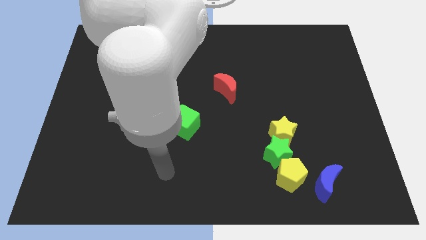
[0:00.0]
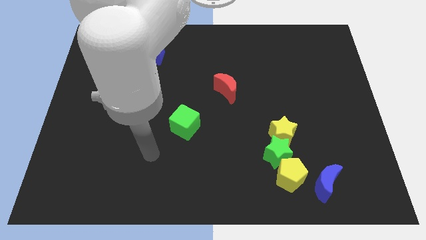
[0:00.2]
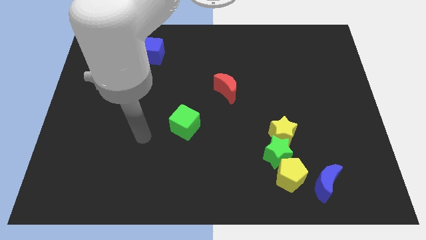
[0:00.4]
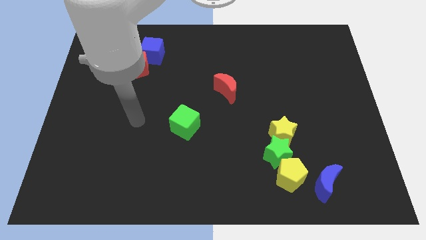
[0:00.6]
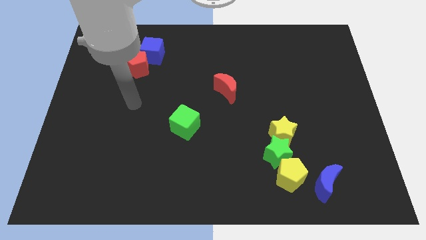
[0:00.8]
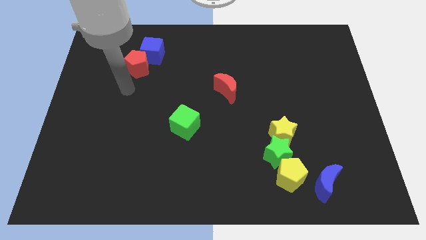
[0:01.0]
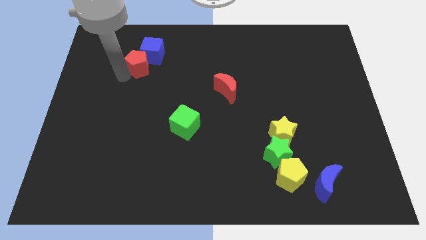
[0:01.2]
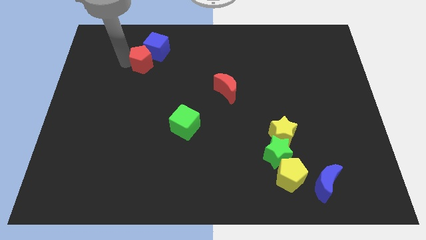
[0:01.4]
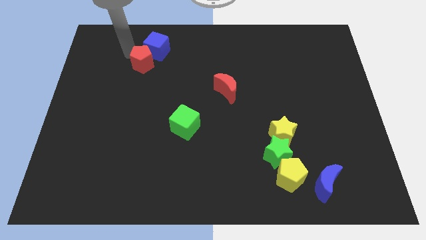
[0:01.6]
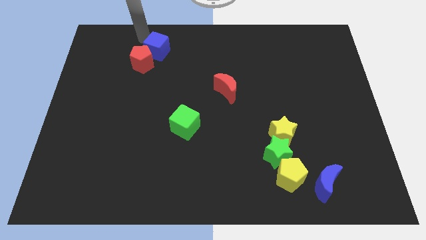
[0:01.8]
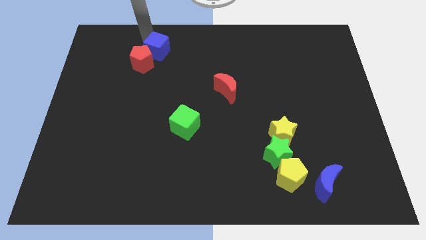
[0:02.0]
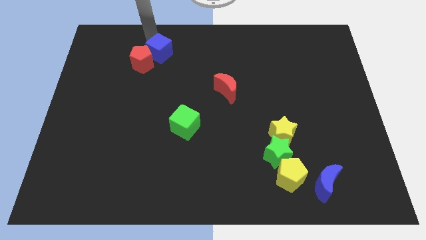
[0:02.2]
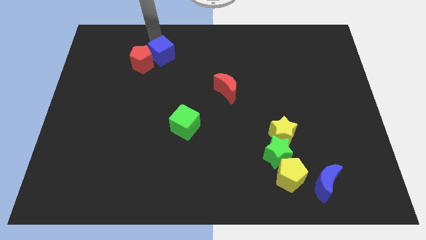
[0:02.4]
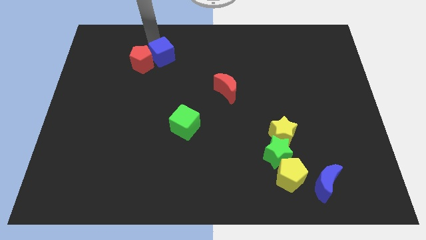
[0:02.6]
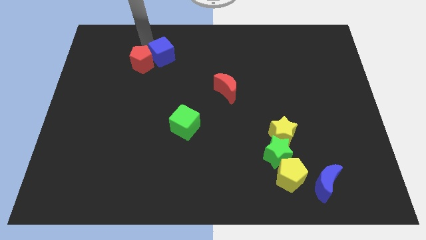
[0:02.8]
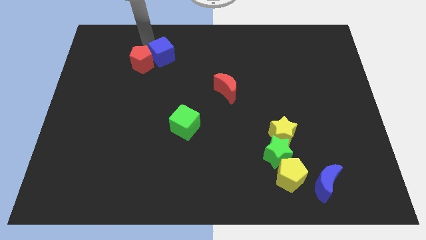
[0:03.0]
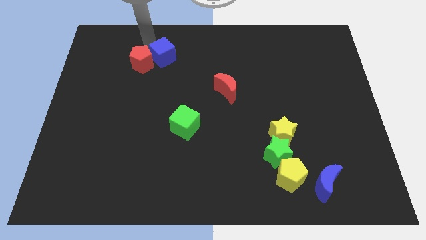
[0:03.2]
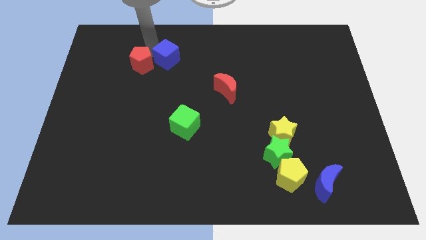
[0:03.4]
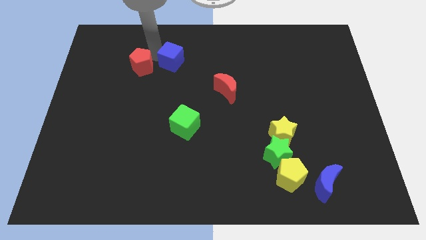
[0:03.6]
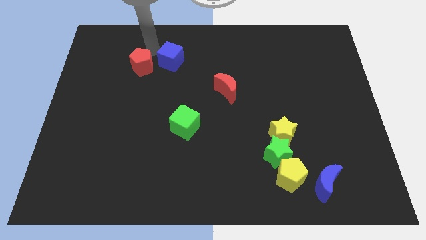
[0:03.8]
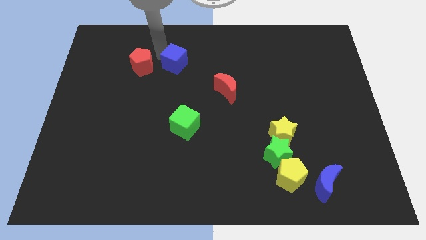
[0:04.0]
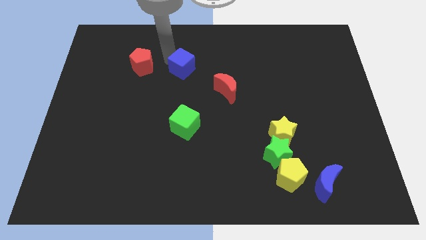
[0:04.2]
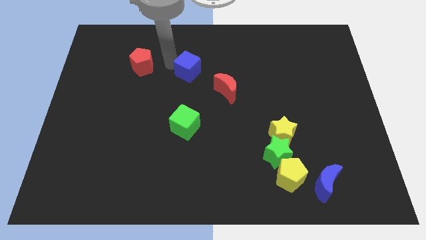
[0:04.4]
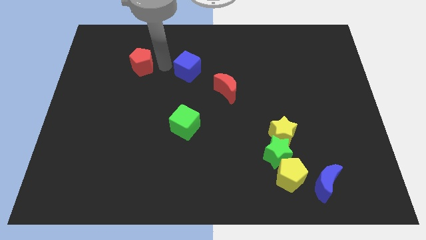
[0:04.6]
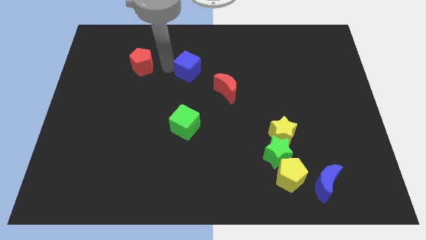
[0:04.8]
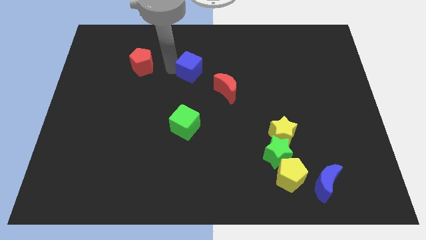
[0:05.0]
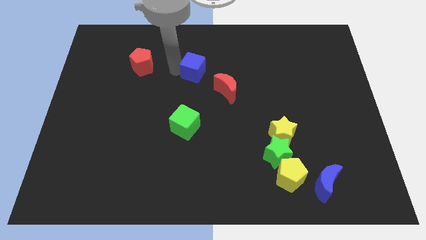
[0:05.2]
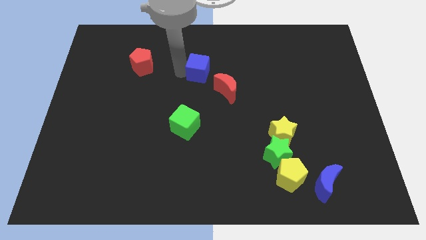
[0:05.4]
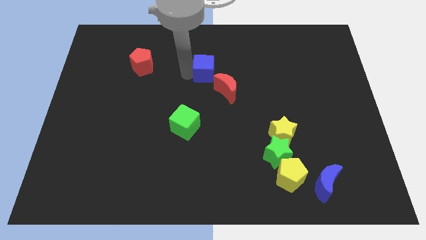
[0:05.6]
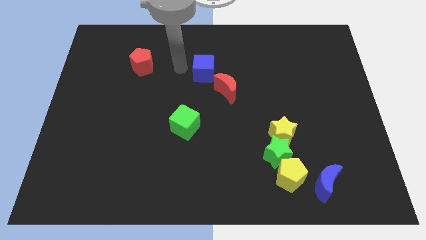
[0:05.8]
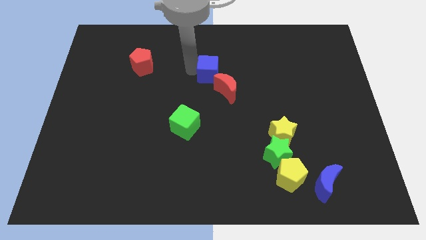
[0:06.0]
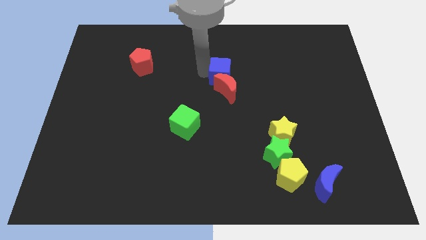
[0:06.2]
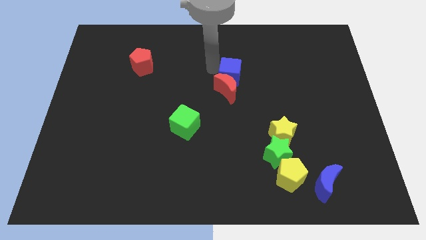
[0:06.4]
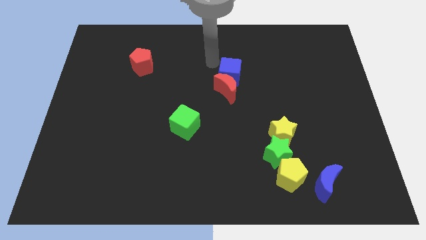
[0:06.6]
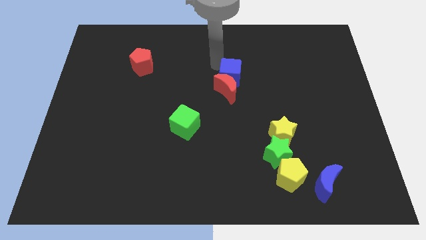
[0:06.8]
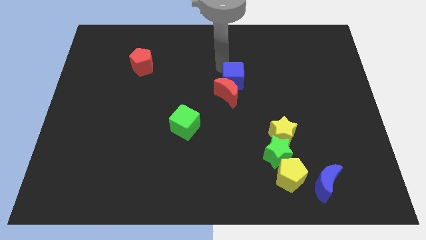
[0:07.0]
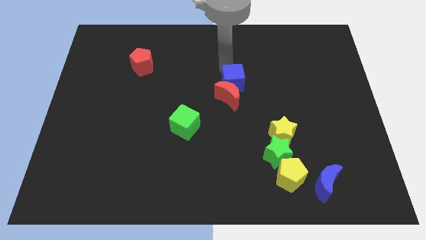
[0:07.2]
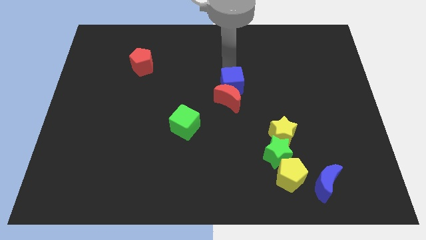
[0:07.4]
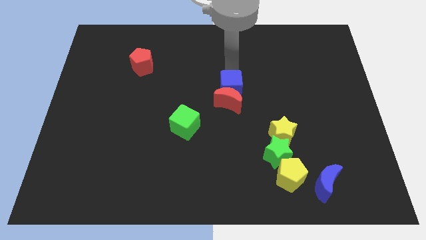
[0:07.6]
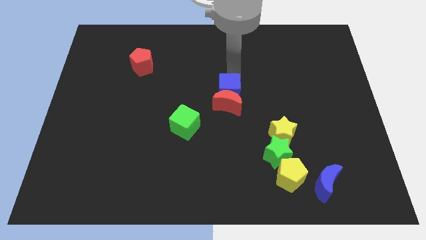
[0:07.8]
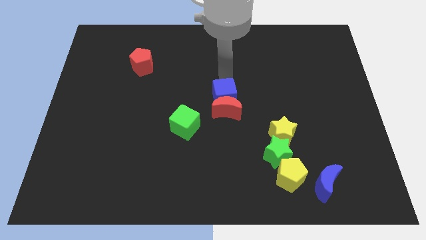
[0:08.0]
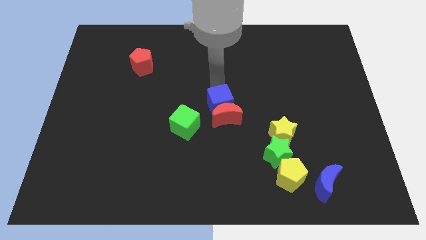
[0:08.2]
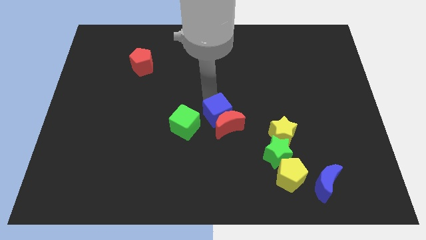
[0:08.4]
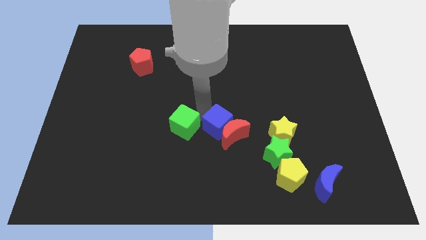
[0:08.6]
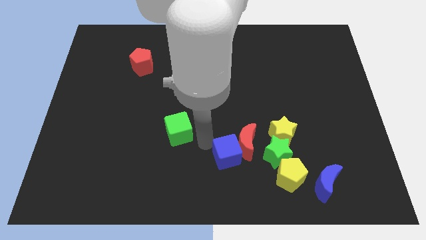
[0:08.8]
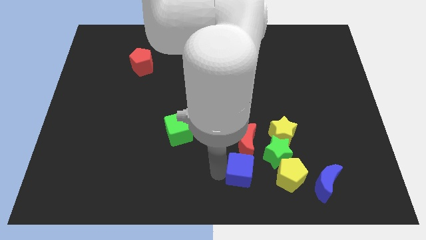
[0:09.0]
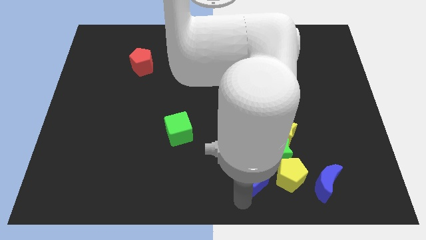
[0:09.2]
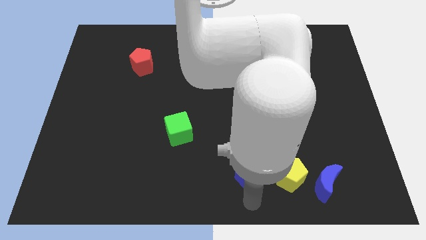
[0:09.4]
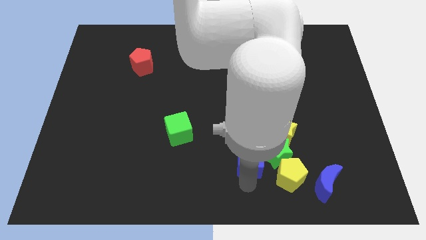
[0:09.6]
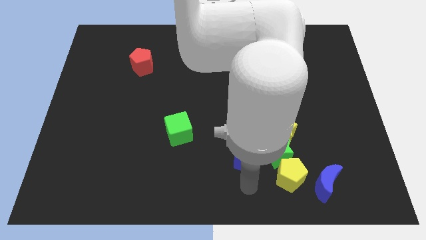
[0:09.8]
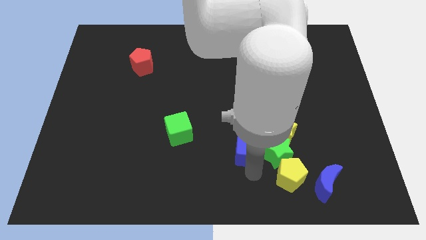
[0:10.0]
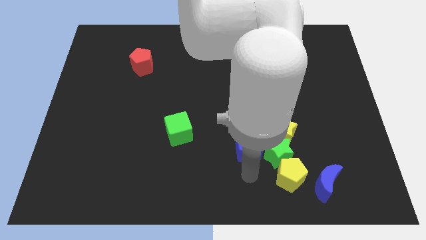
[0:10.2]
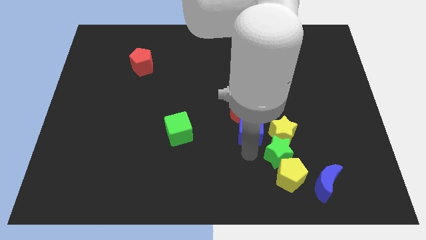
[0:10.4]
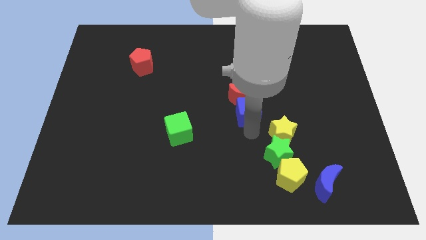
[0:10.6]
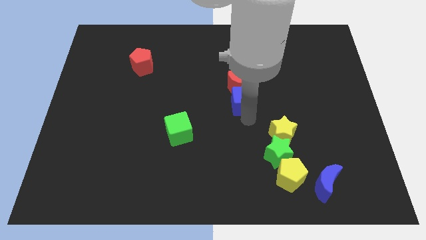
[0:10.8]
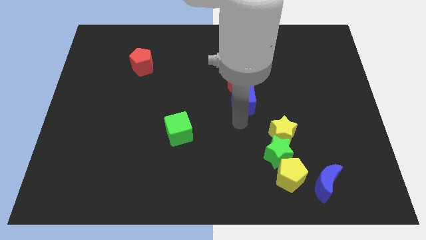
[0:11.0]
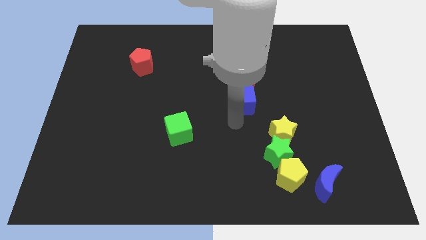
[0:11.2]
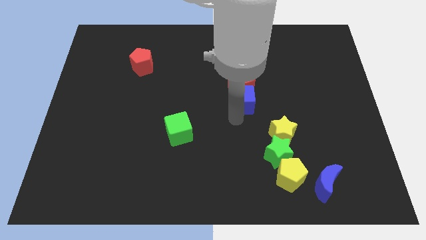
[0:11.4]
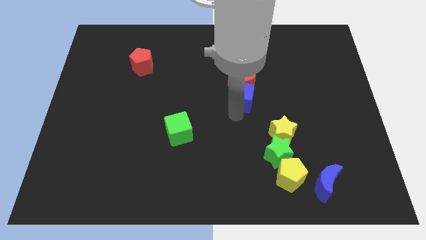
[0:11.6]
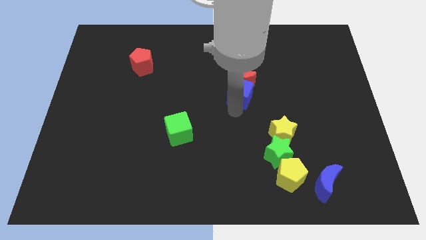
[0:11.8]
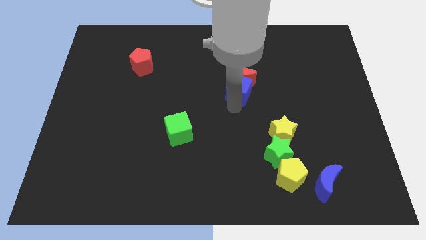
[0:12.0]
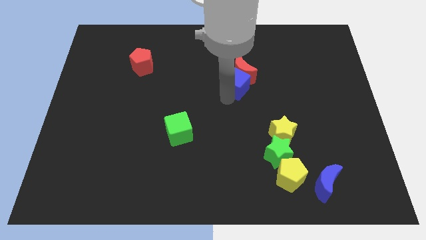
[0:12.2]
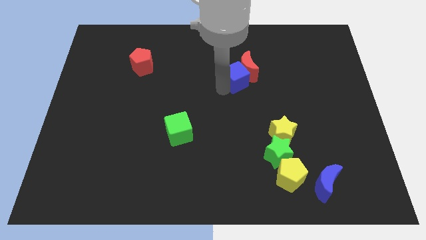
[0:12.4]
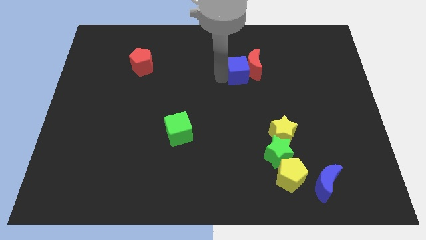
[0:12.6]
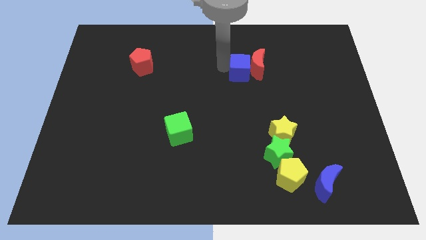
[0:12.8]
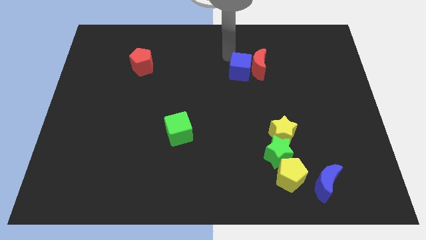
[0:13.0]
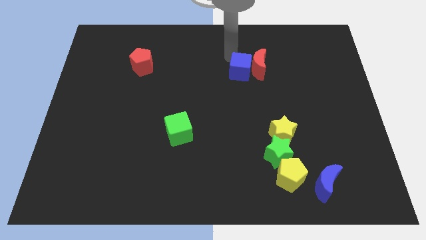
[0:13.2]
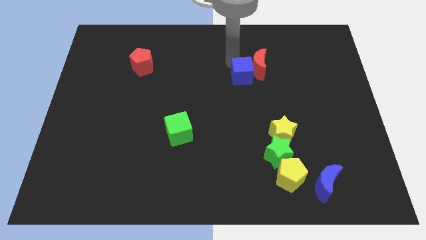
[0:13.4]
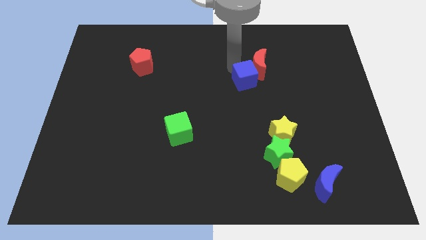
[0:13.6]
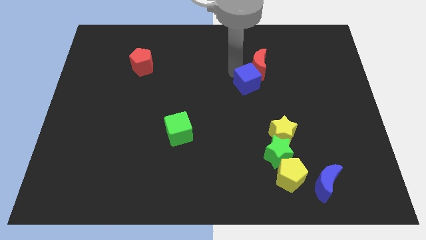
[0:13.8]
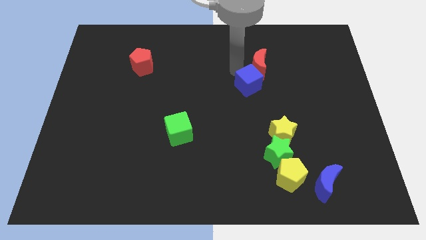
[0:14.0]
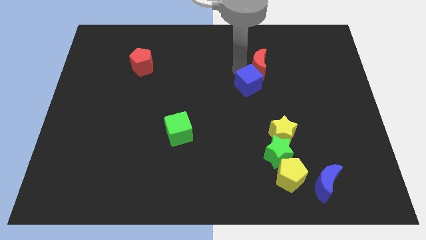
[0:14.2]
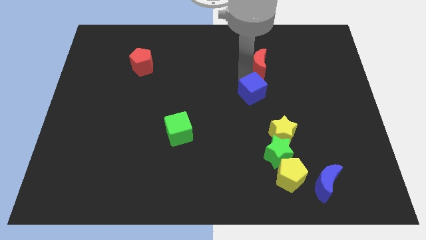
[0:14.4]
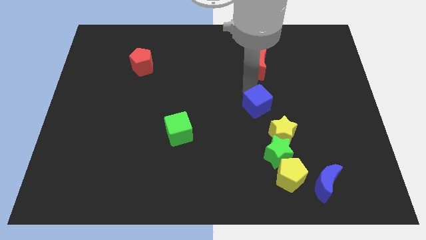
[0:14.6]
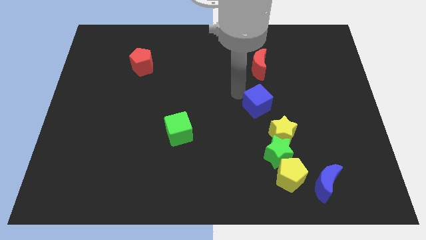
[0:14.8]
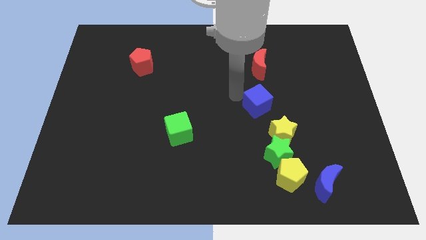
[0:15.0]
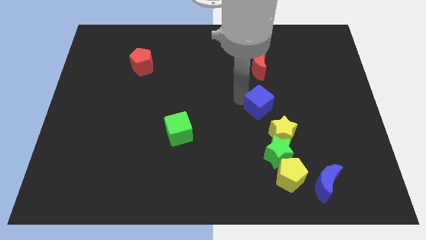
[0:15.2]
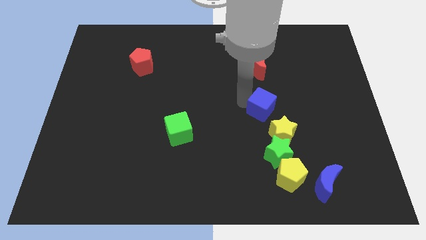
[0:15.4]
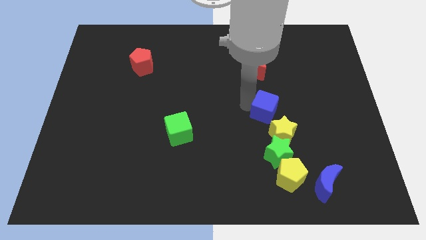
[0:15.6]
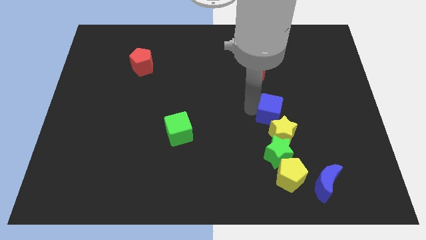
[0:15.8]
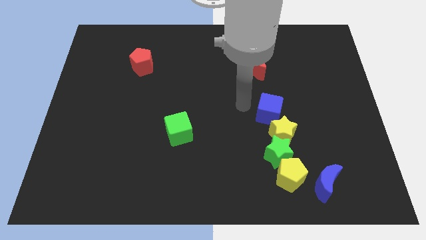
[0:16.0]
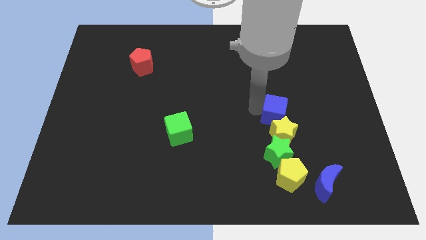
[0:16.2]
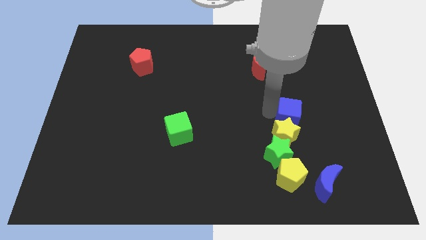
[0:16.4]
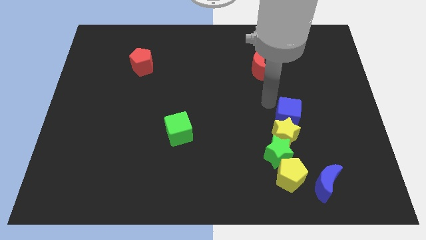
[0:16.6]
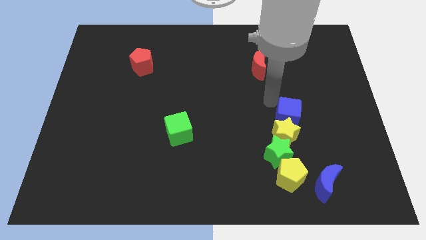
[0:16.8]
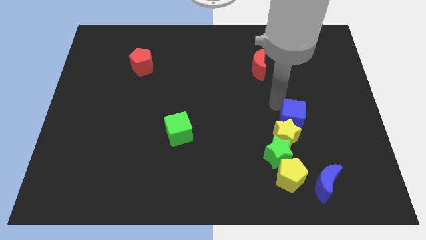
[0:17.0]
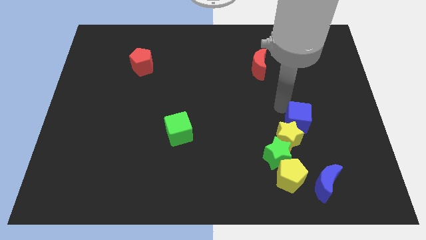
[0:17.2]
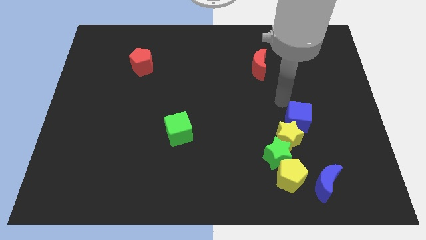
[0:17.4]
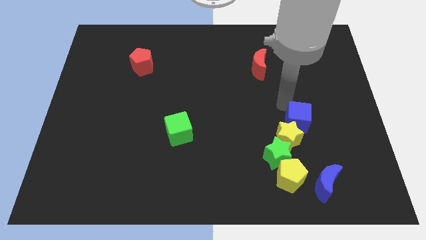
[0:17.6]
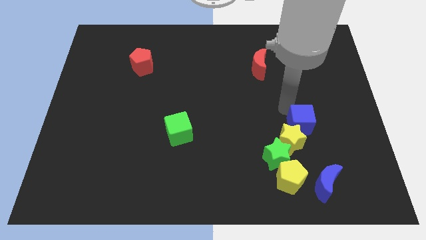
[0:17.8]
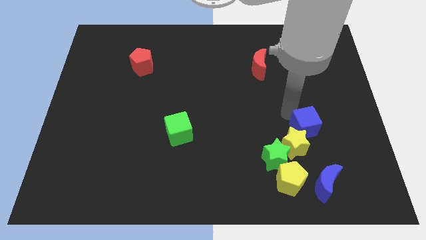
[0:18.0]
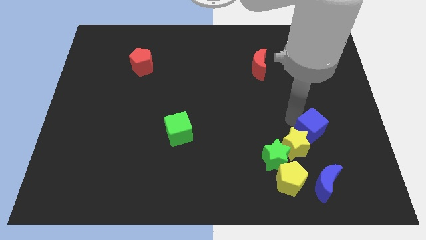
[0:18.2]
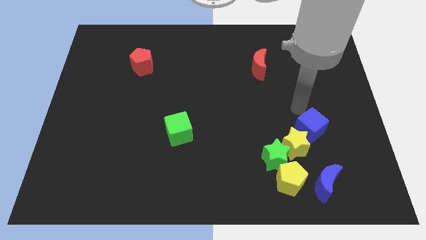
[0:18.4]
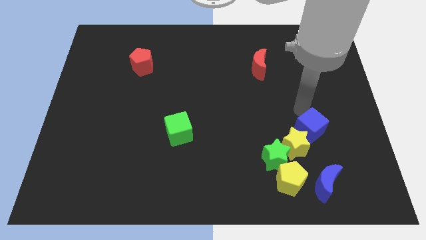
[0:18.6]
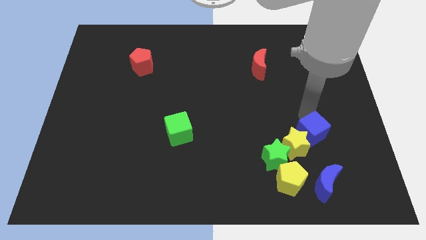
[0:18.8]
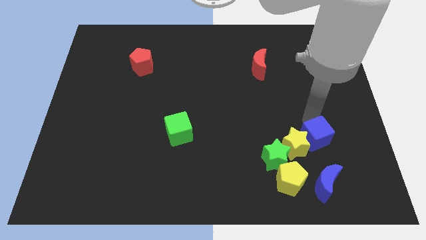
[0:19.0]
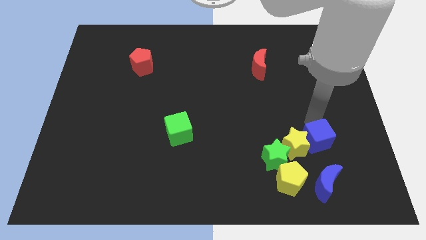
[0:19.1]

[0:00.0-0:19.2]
slide the blue cube to the right side of the green star
